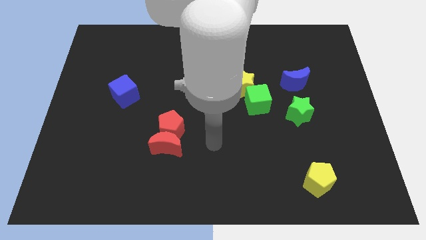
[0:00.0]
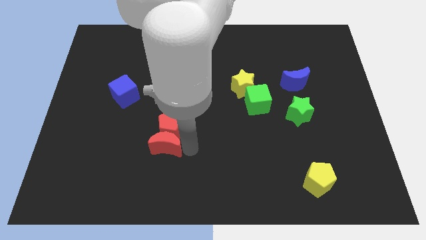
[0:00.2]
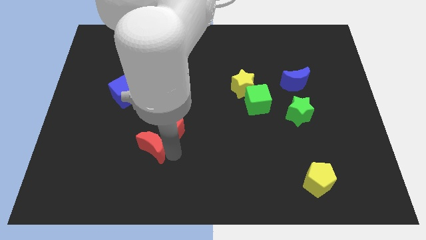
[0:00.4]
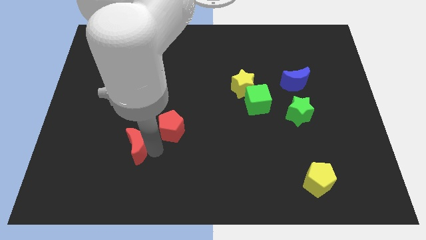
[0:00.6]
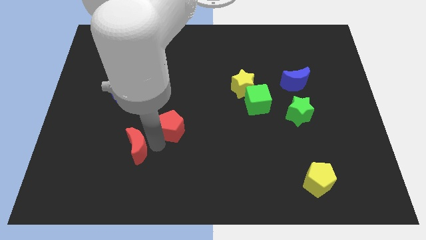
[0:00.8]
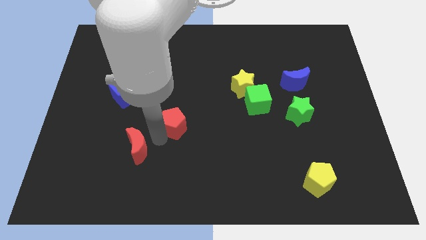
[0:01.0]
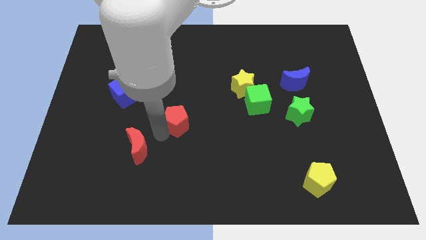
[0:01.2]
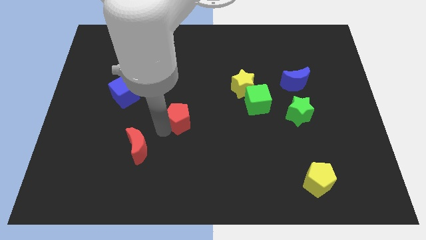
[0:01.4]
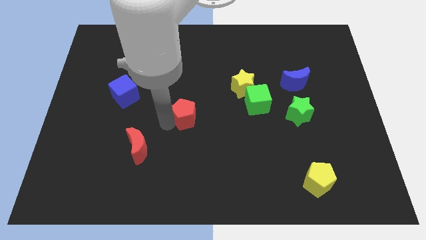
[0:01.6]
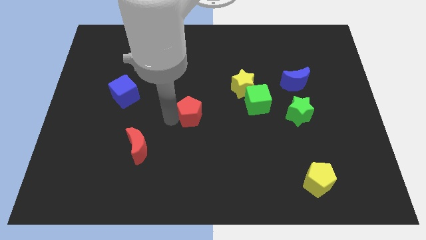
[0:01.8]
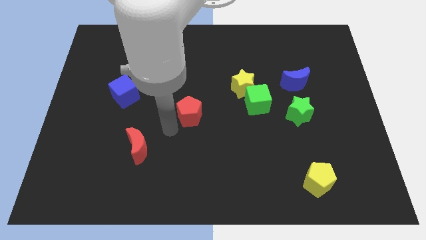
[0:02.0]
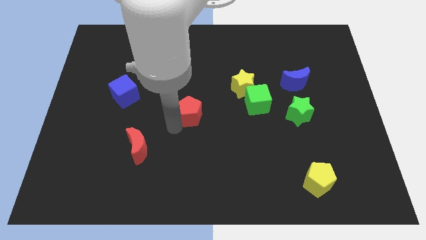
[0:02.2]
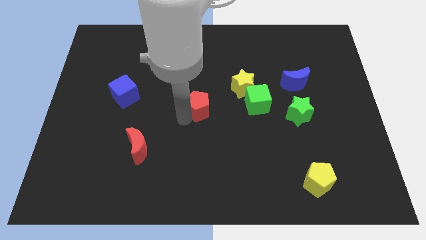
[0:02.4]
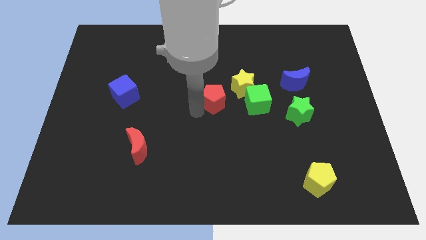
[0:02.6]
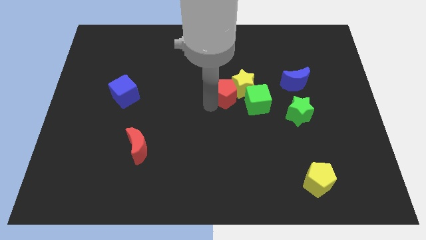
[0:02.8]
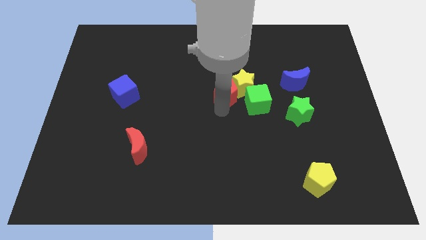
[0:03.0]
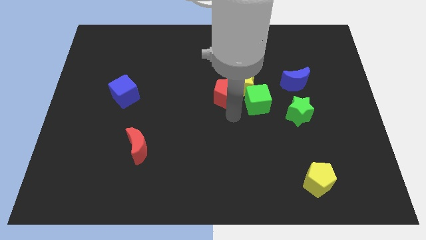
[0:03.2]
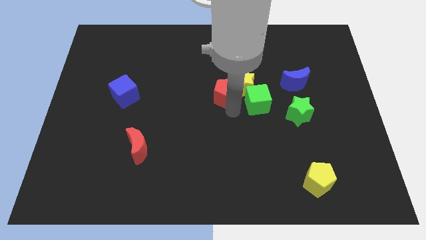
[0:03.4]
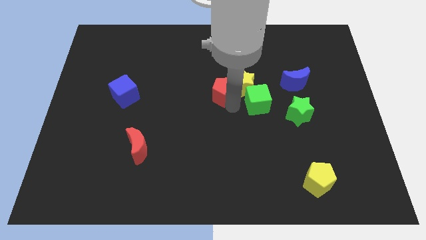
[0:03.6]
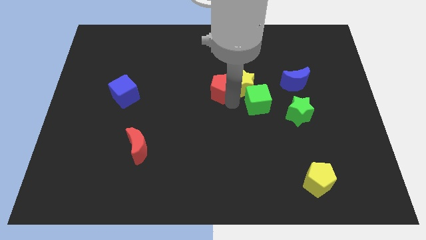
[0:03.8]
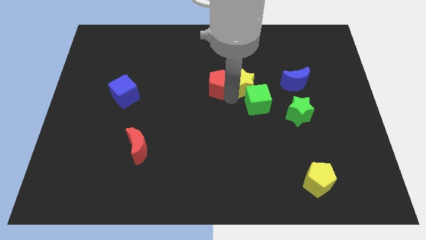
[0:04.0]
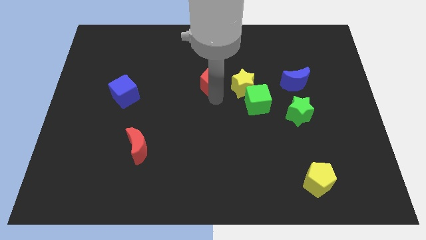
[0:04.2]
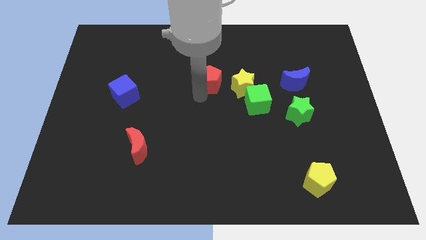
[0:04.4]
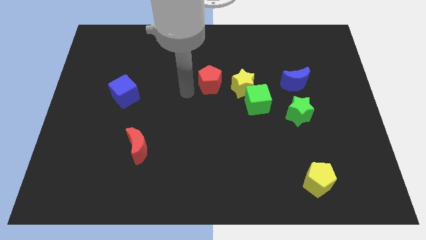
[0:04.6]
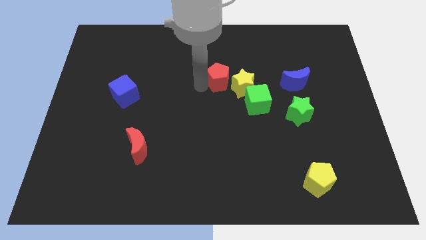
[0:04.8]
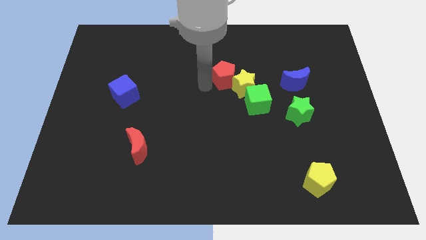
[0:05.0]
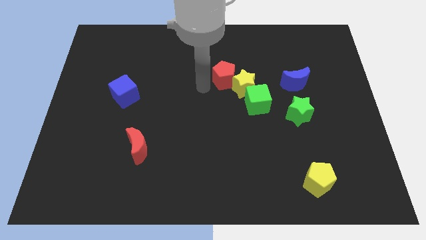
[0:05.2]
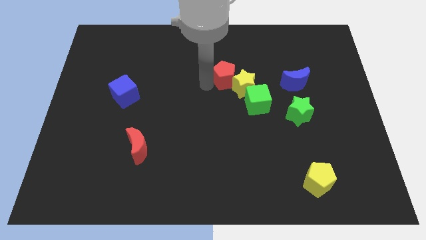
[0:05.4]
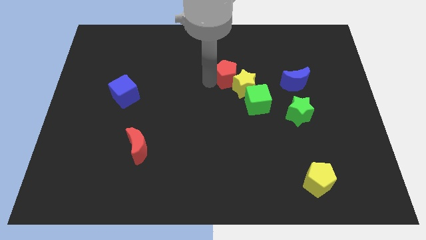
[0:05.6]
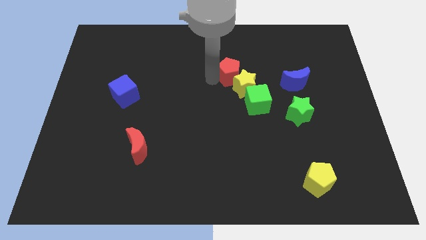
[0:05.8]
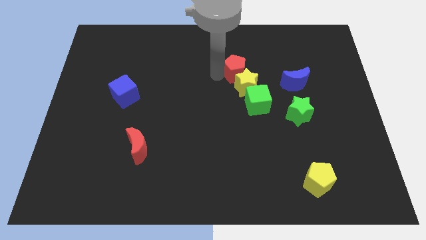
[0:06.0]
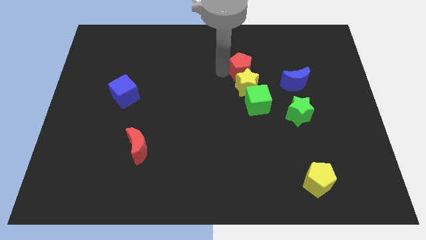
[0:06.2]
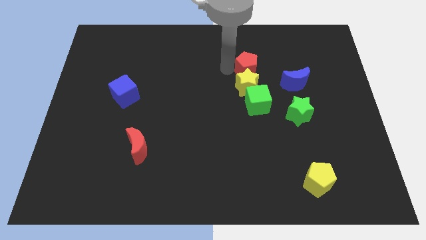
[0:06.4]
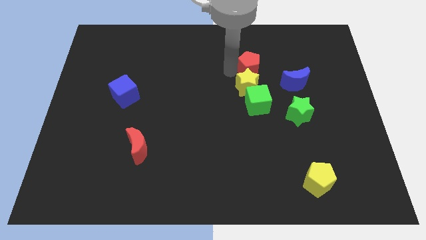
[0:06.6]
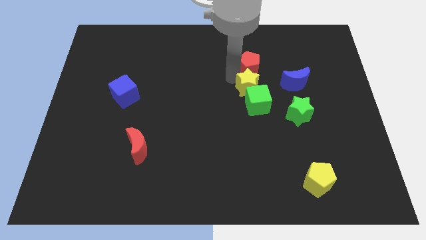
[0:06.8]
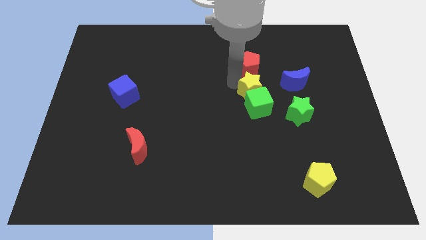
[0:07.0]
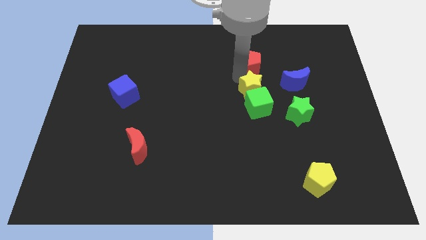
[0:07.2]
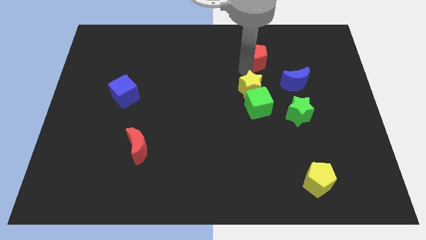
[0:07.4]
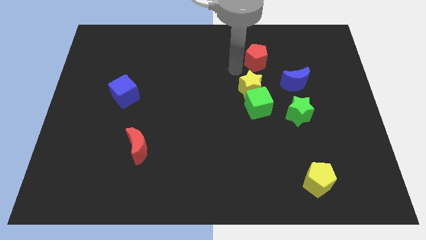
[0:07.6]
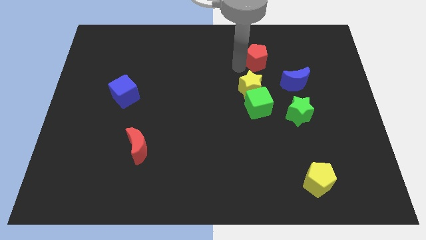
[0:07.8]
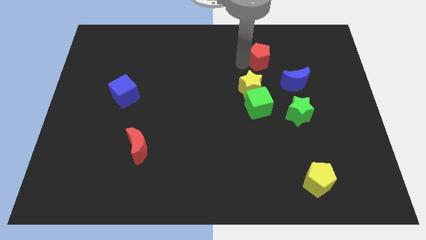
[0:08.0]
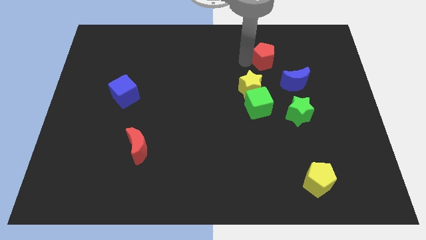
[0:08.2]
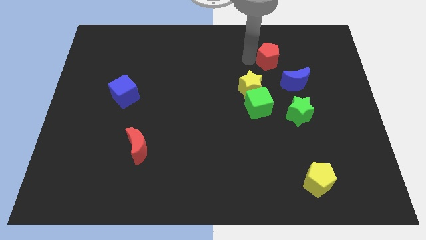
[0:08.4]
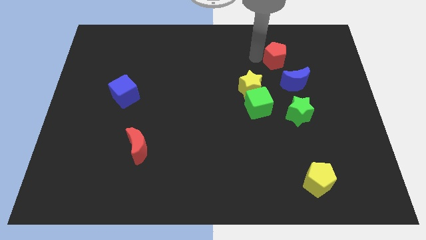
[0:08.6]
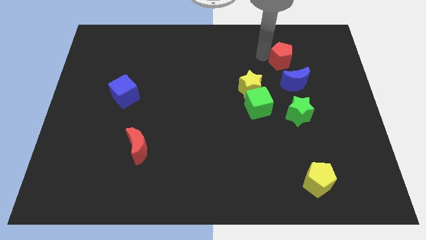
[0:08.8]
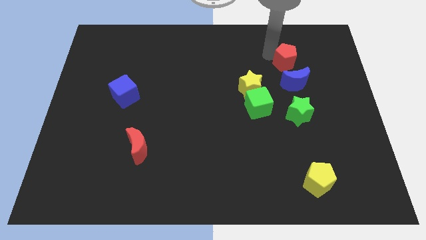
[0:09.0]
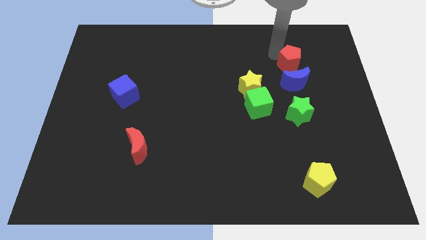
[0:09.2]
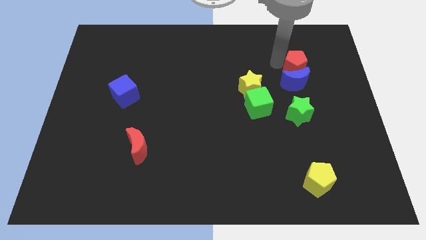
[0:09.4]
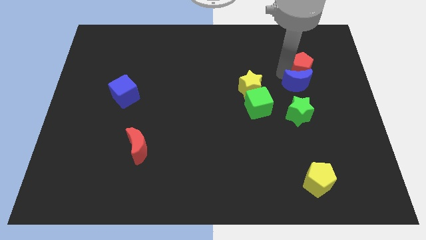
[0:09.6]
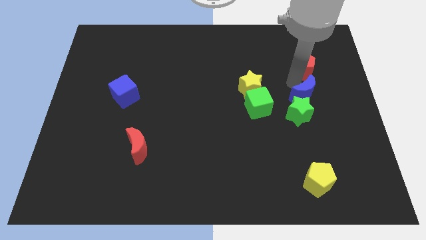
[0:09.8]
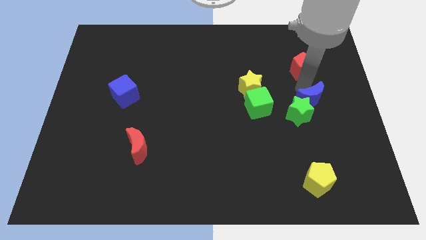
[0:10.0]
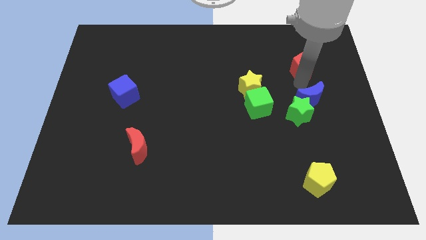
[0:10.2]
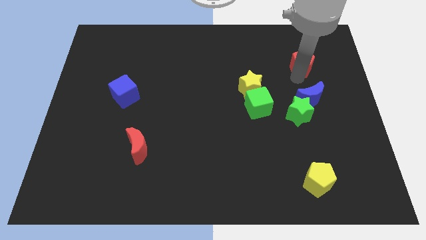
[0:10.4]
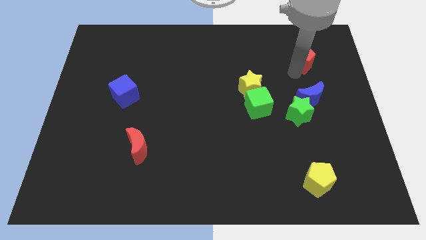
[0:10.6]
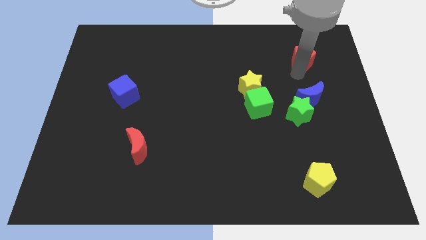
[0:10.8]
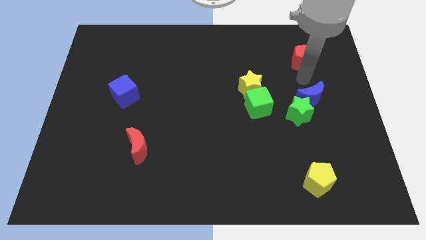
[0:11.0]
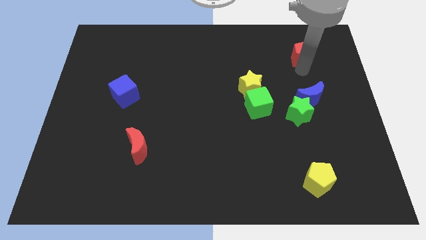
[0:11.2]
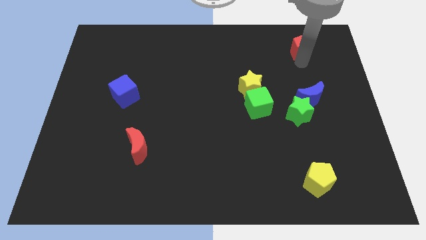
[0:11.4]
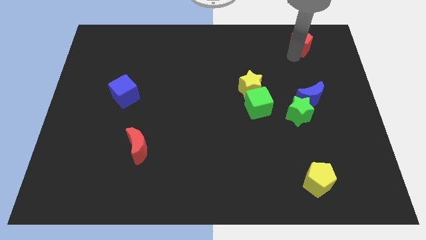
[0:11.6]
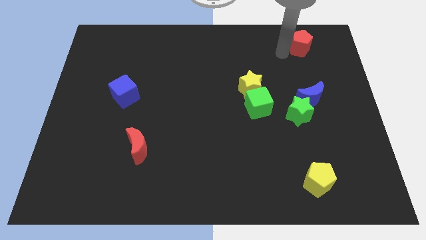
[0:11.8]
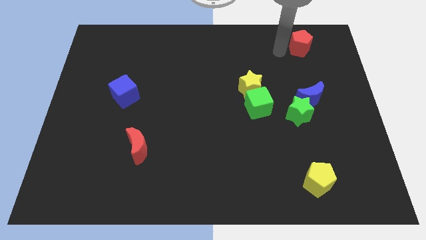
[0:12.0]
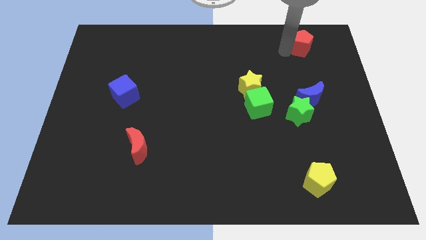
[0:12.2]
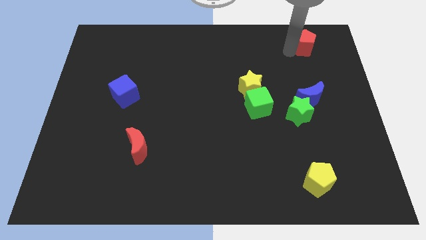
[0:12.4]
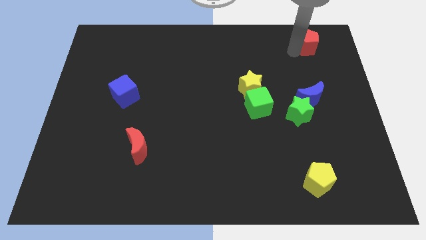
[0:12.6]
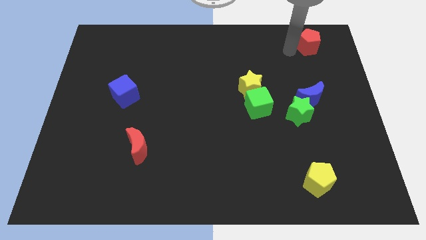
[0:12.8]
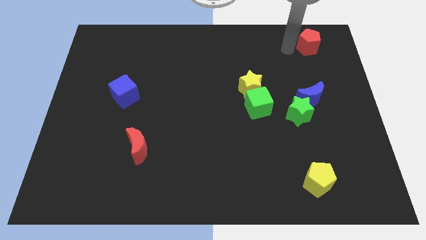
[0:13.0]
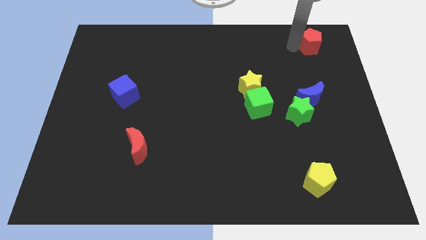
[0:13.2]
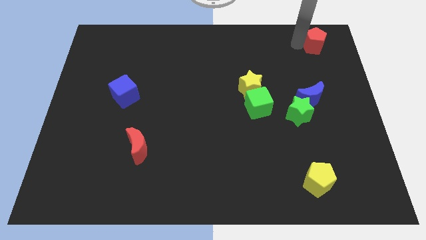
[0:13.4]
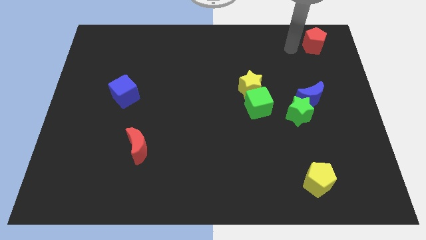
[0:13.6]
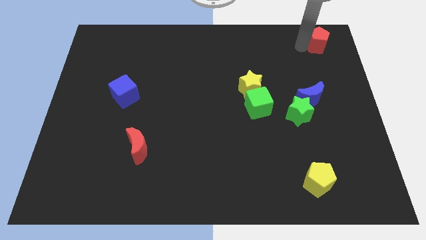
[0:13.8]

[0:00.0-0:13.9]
push the red pentagon to the top right of the board
